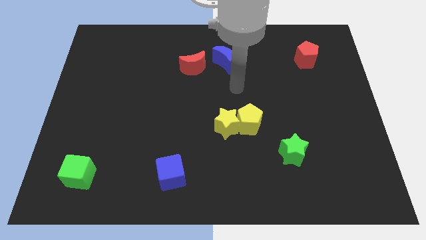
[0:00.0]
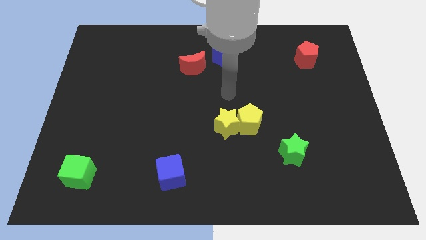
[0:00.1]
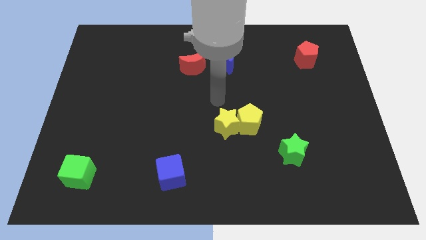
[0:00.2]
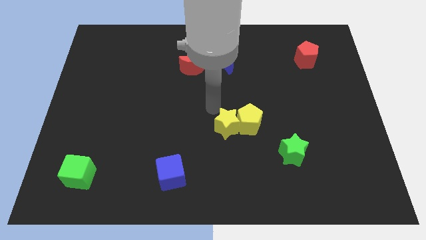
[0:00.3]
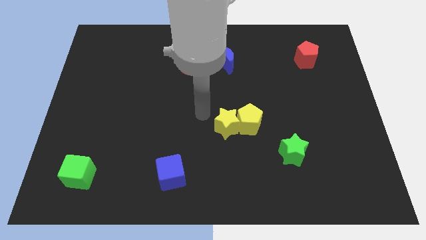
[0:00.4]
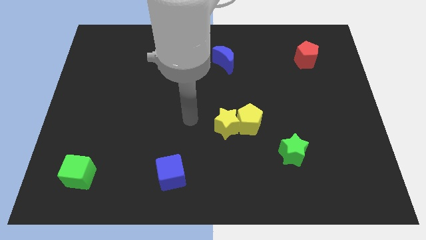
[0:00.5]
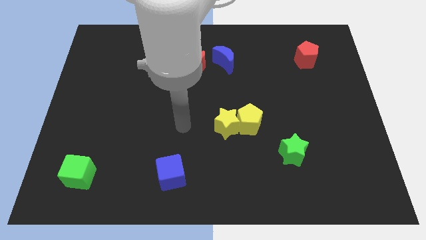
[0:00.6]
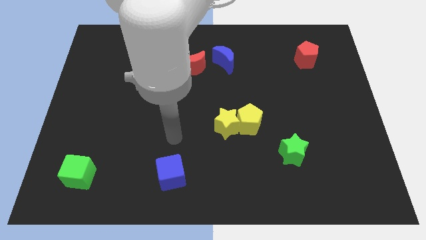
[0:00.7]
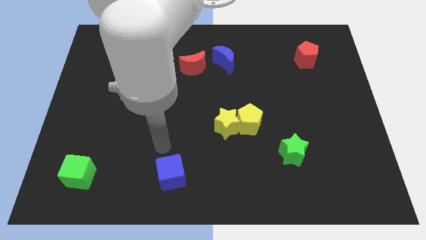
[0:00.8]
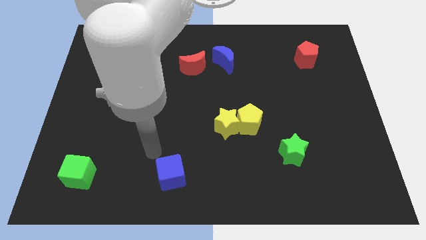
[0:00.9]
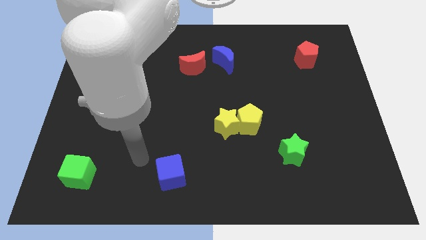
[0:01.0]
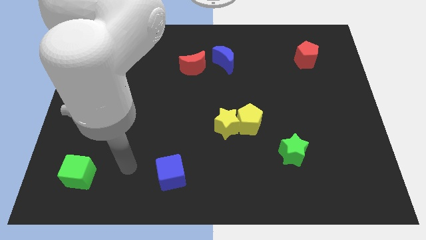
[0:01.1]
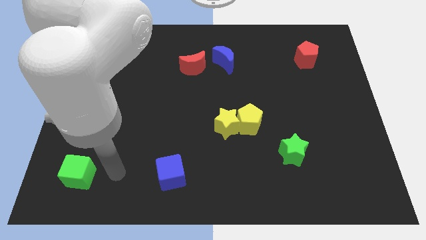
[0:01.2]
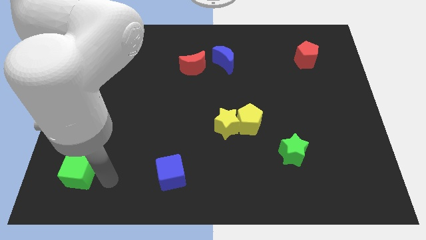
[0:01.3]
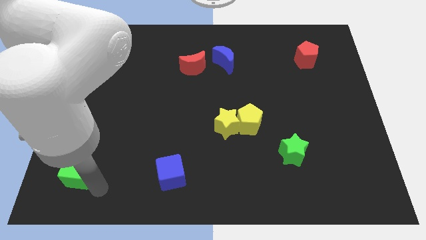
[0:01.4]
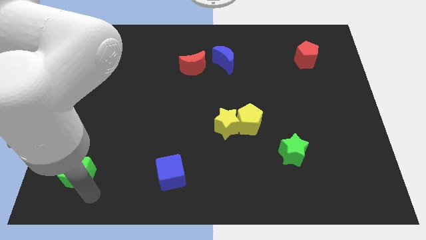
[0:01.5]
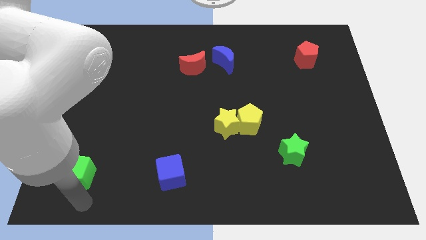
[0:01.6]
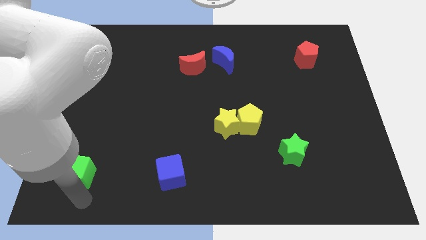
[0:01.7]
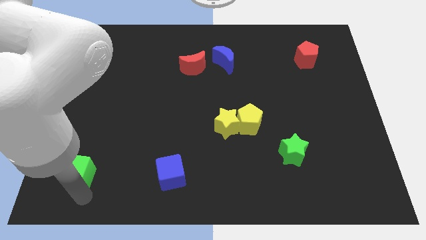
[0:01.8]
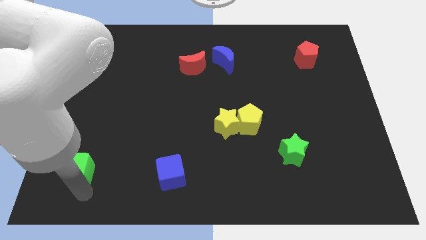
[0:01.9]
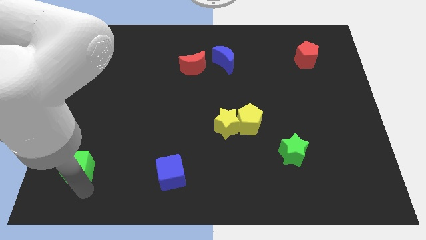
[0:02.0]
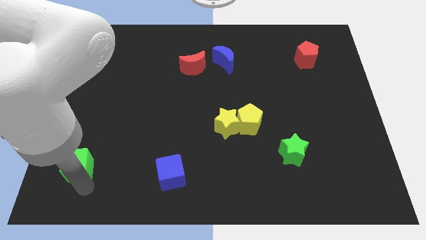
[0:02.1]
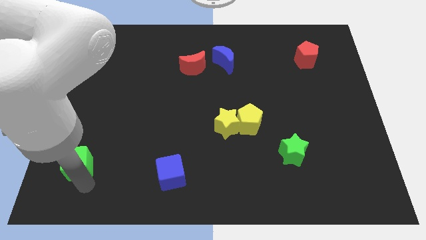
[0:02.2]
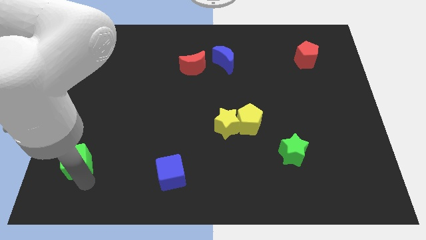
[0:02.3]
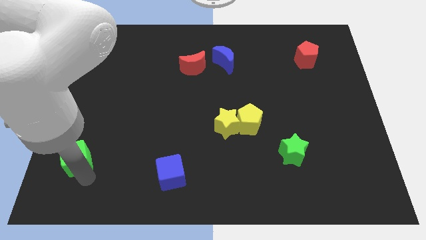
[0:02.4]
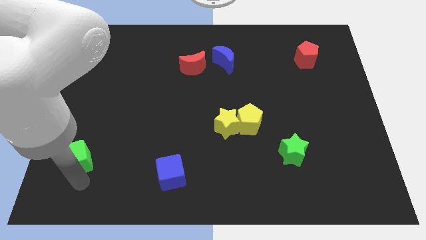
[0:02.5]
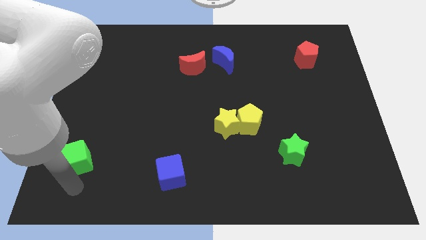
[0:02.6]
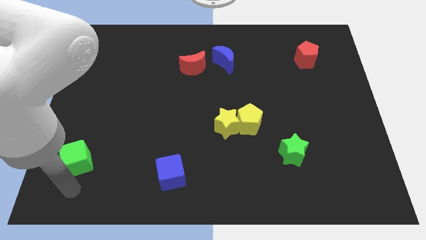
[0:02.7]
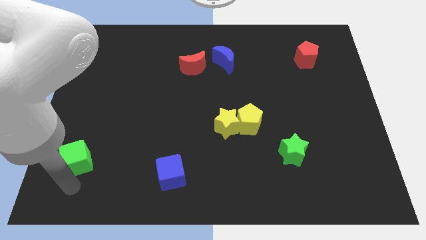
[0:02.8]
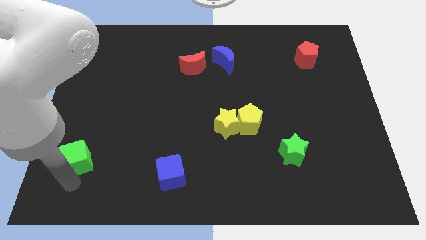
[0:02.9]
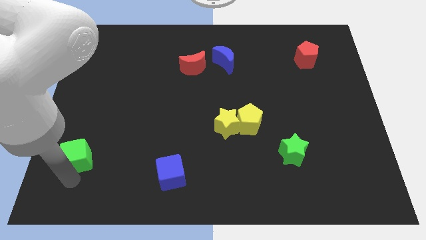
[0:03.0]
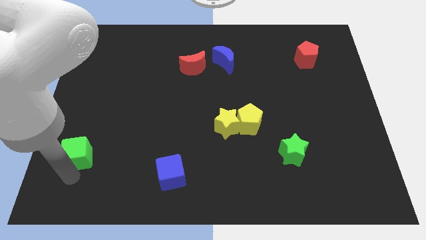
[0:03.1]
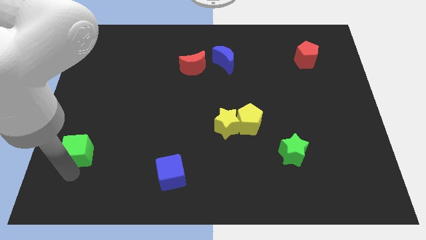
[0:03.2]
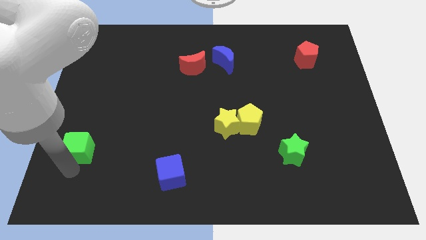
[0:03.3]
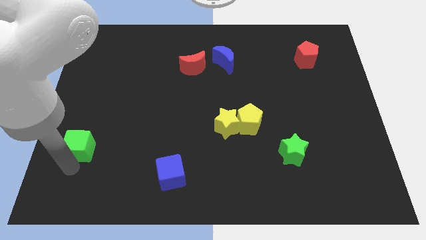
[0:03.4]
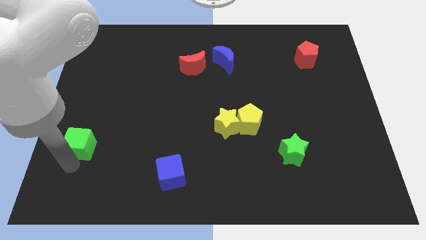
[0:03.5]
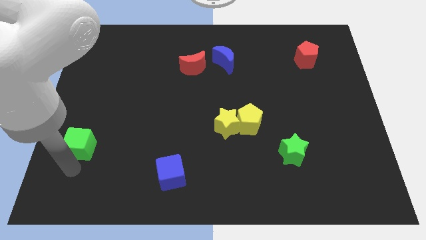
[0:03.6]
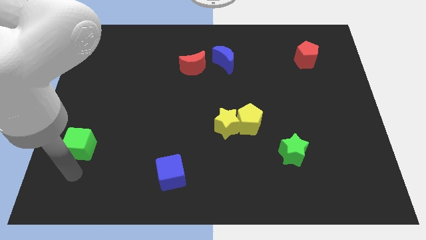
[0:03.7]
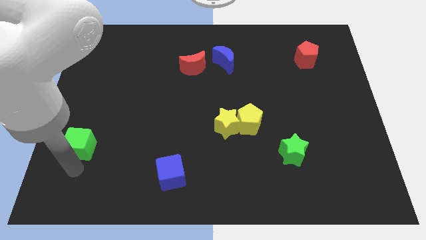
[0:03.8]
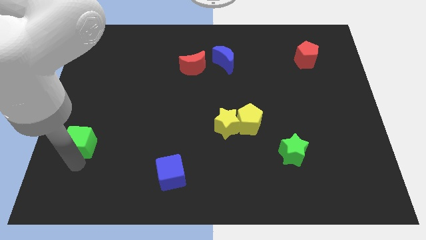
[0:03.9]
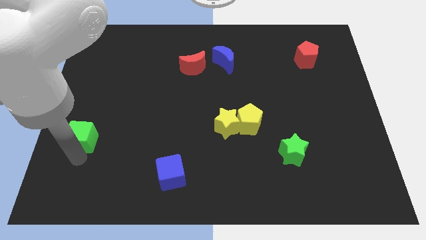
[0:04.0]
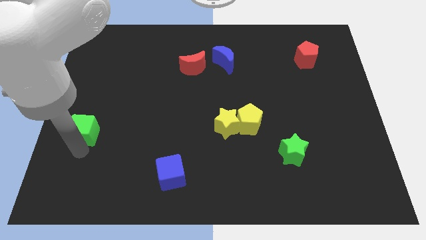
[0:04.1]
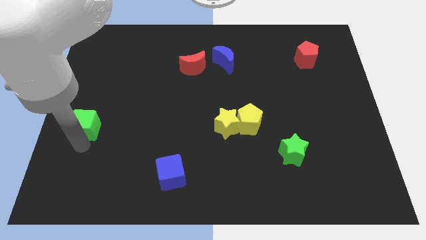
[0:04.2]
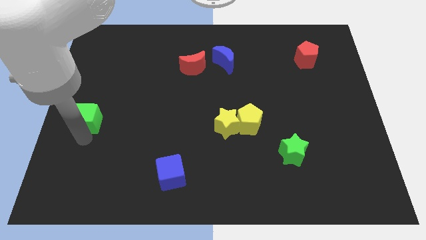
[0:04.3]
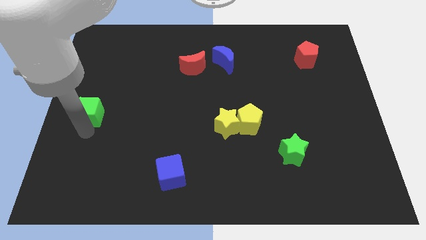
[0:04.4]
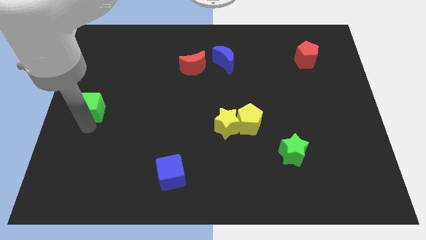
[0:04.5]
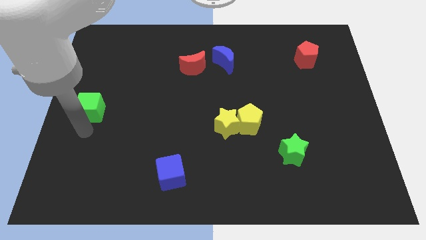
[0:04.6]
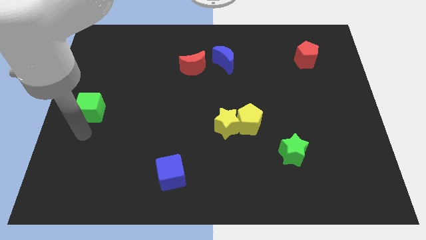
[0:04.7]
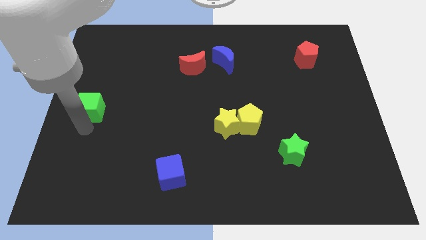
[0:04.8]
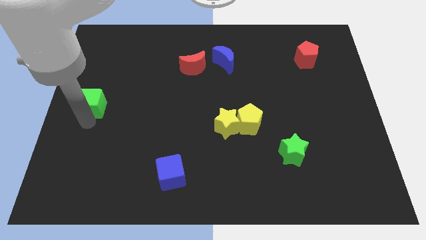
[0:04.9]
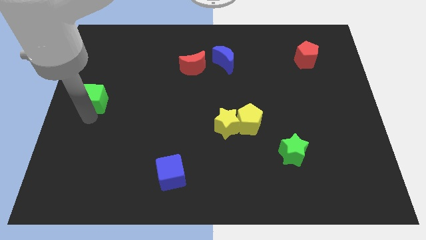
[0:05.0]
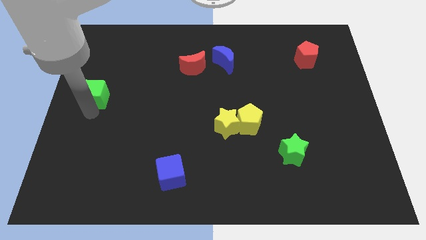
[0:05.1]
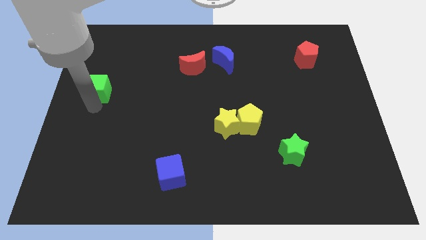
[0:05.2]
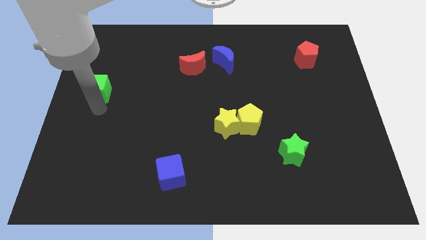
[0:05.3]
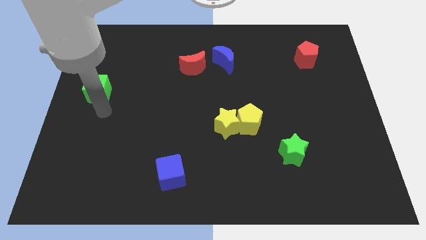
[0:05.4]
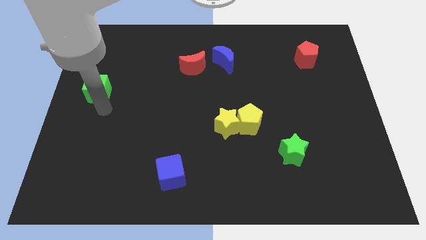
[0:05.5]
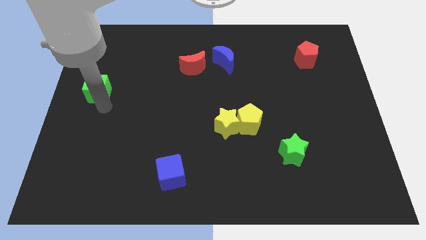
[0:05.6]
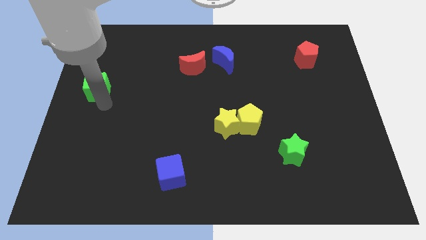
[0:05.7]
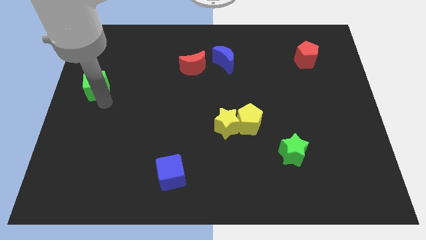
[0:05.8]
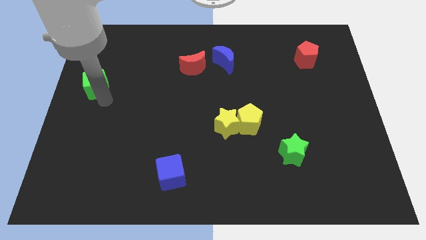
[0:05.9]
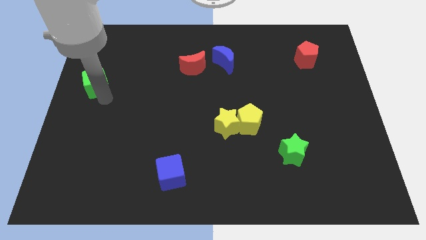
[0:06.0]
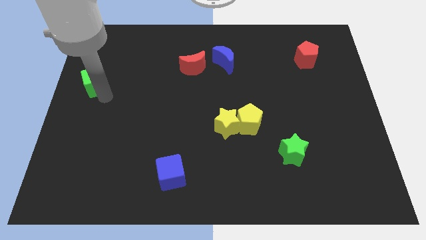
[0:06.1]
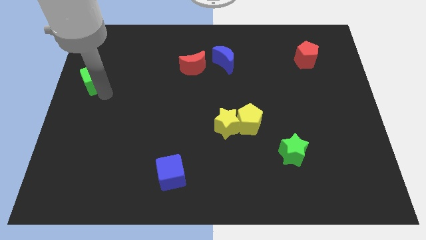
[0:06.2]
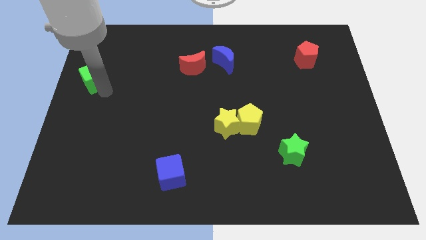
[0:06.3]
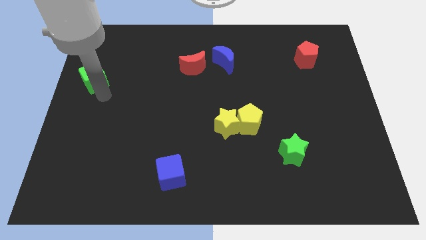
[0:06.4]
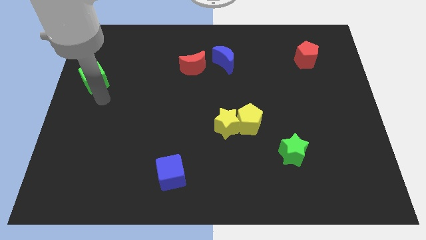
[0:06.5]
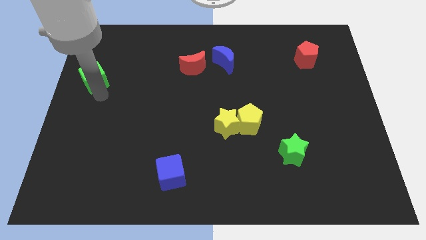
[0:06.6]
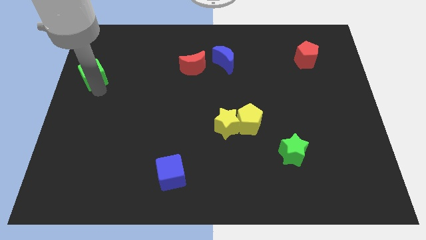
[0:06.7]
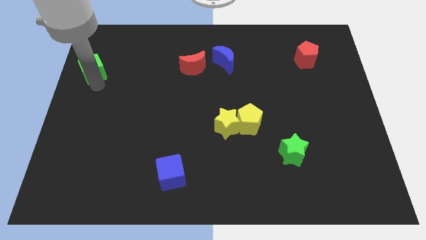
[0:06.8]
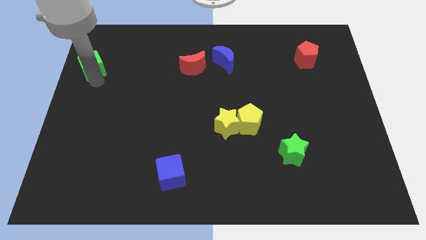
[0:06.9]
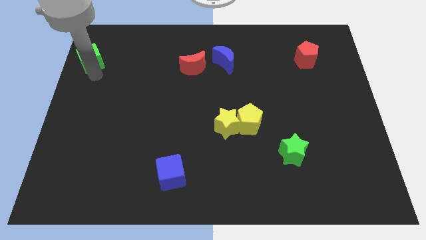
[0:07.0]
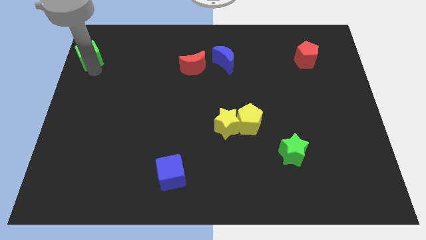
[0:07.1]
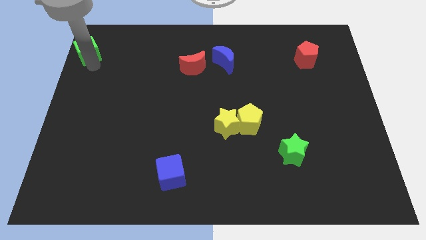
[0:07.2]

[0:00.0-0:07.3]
slide the green cube to the top left corner
